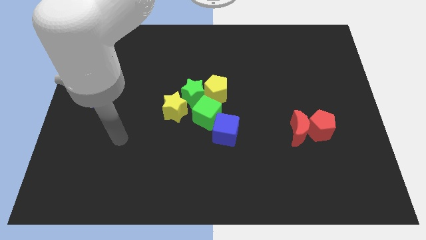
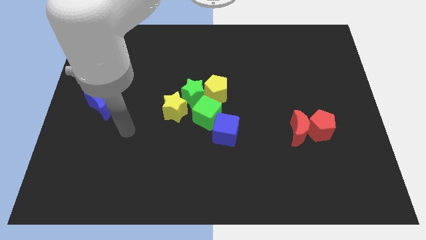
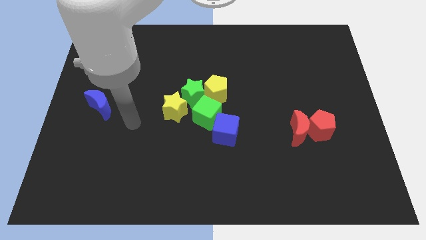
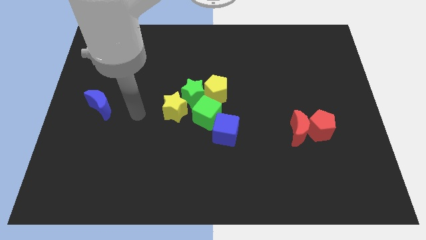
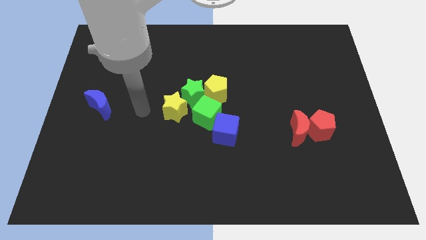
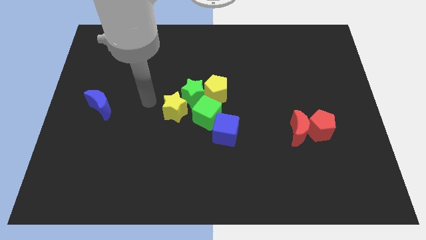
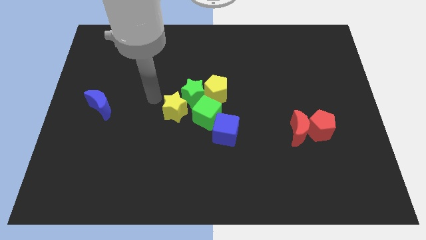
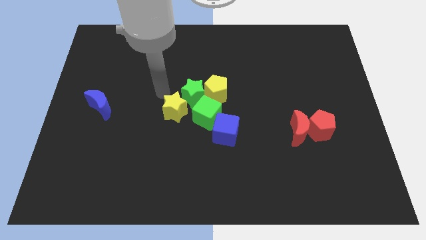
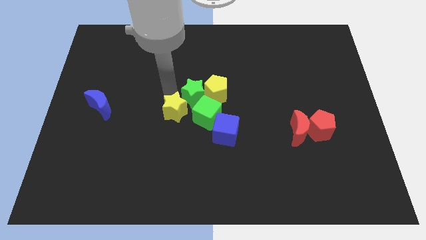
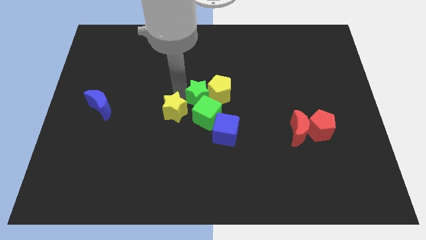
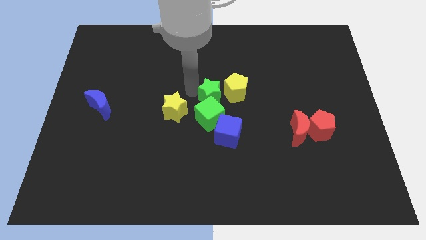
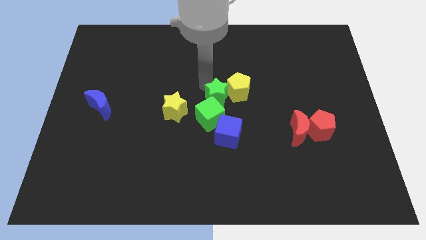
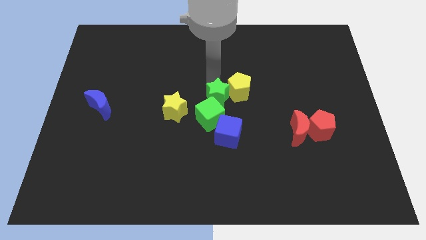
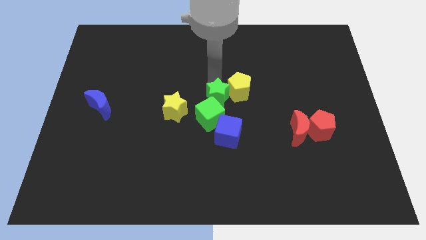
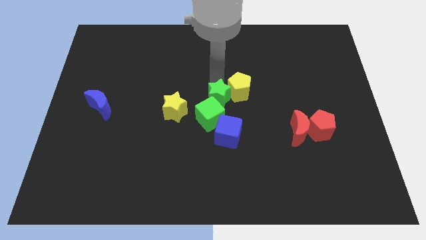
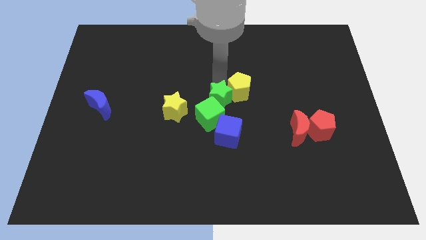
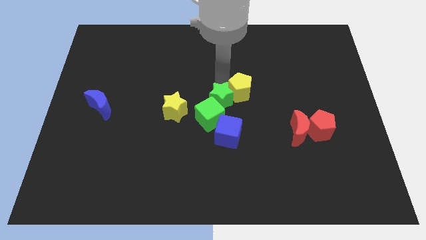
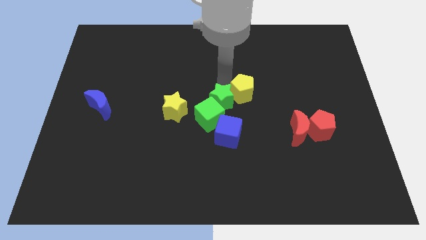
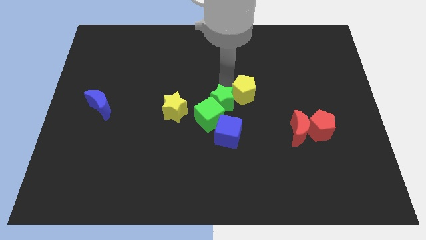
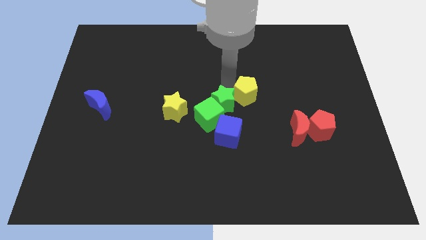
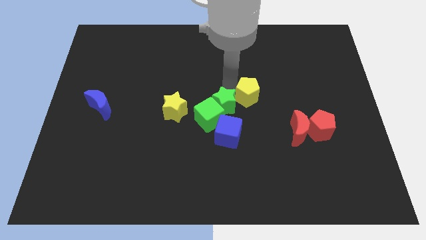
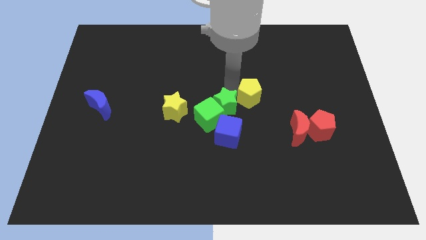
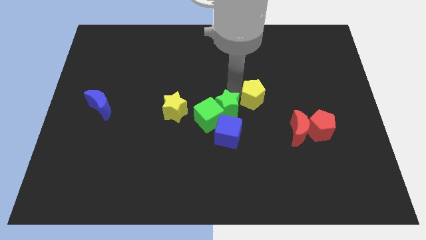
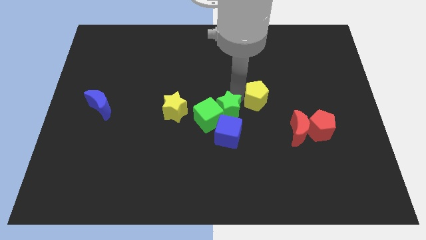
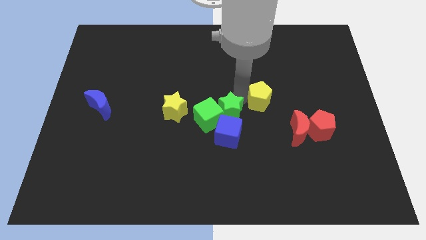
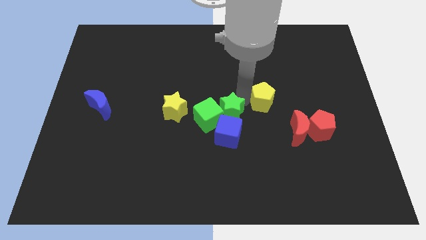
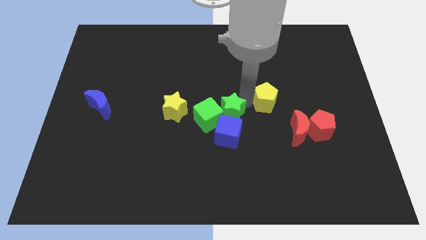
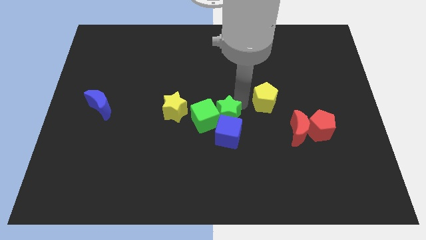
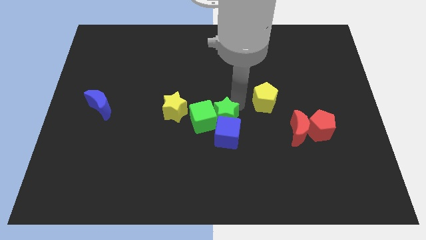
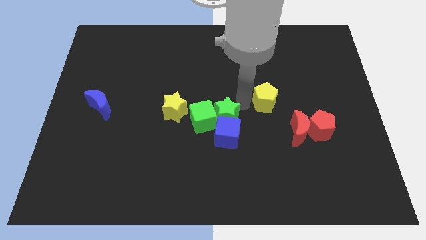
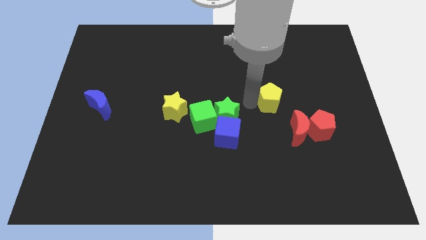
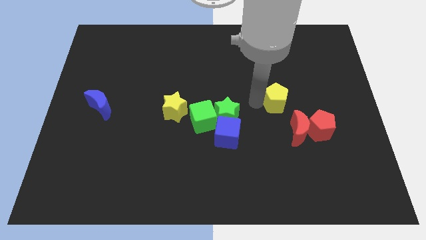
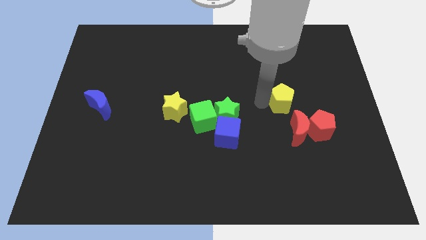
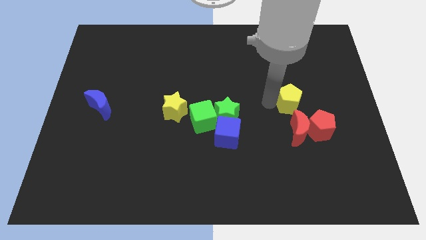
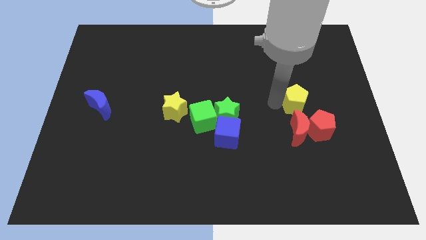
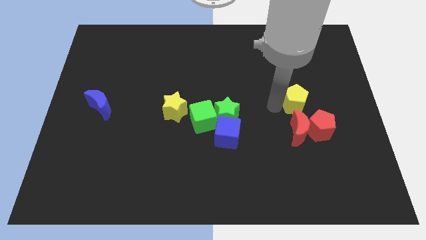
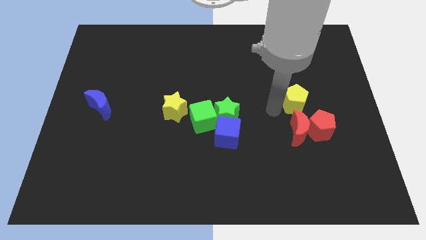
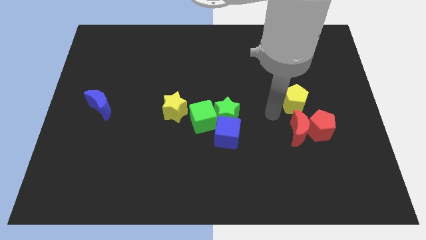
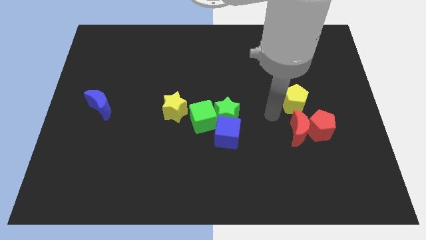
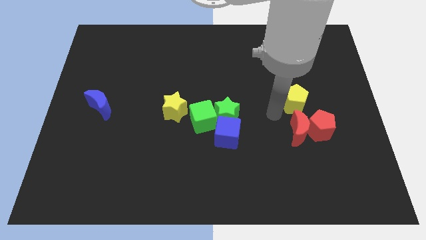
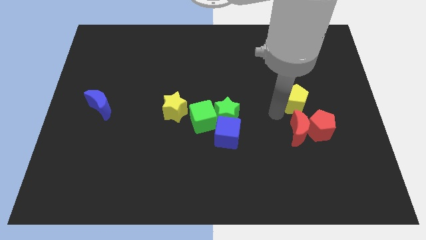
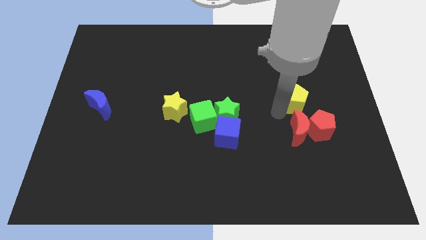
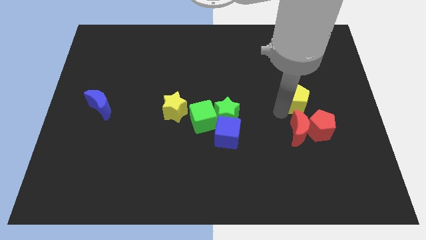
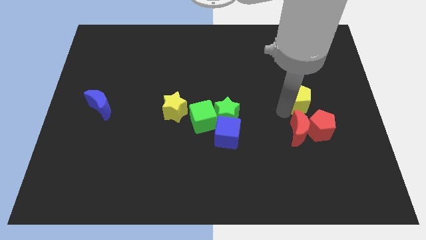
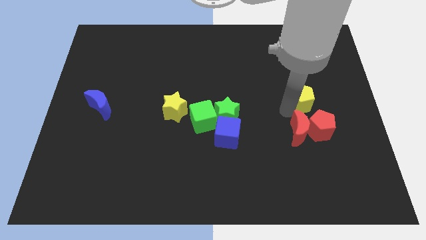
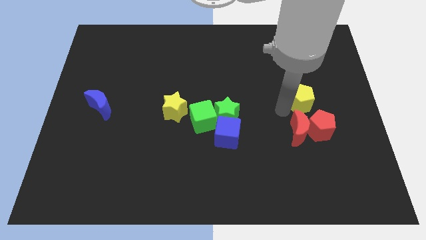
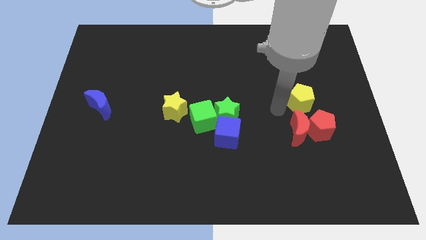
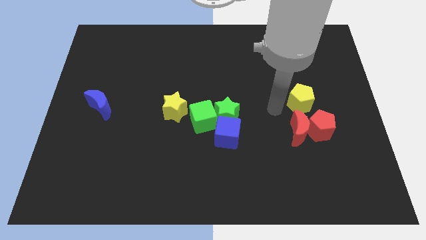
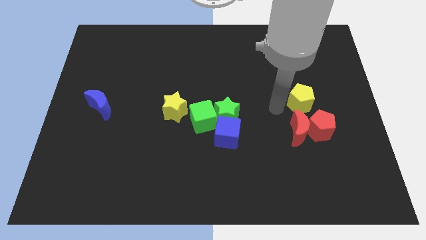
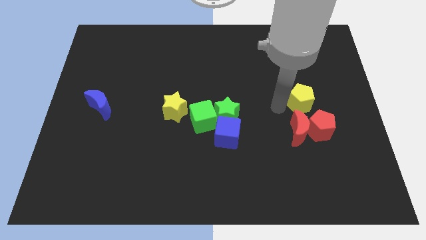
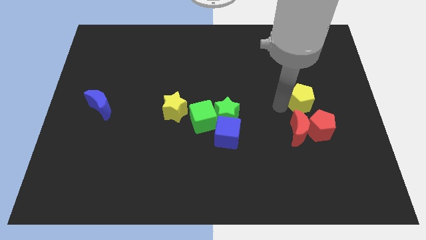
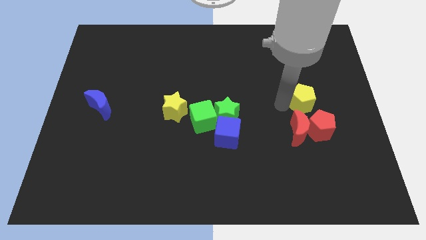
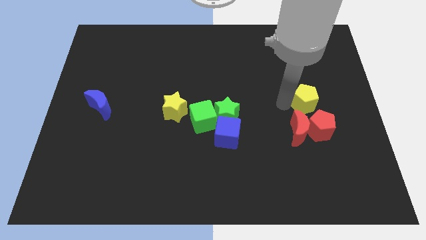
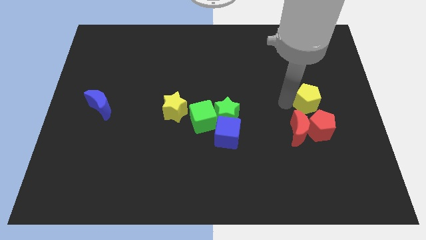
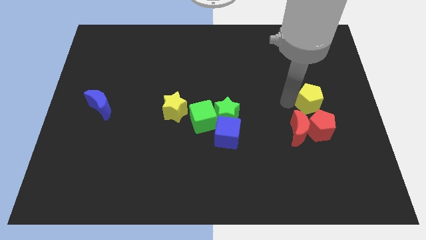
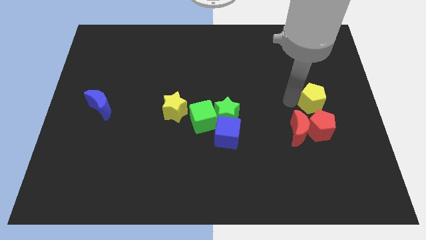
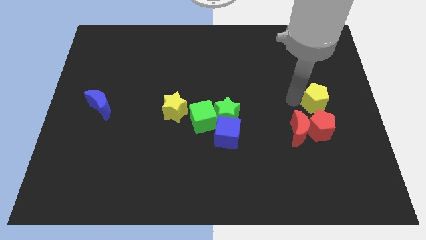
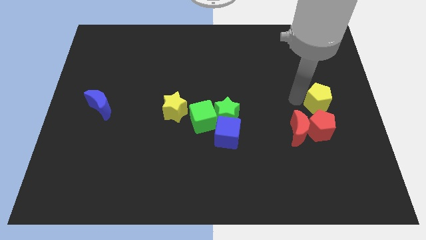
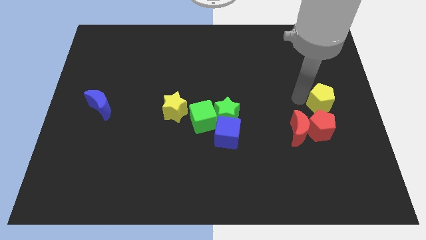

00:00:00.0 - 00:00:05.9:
slide the yellow pentagon to the right side of the board

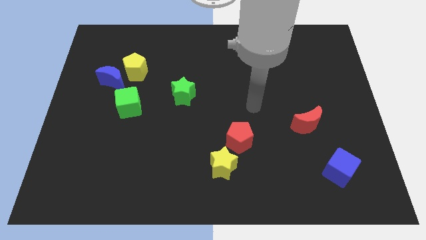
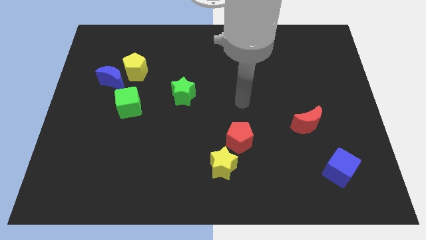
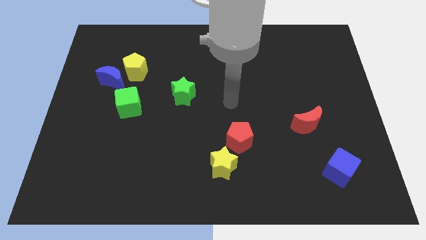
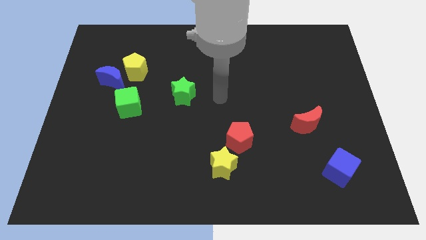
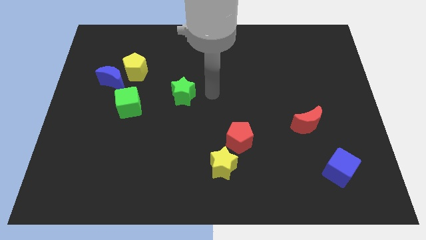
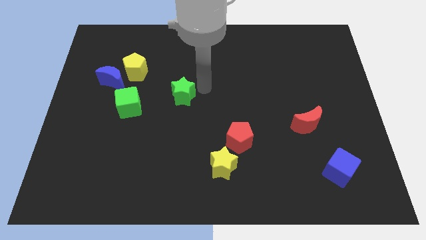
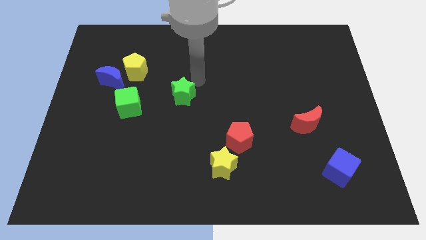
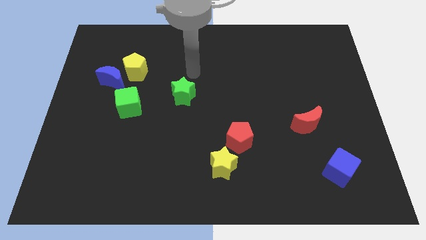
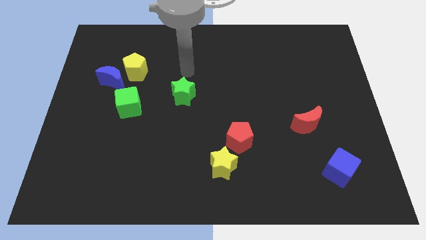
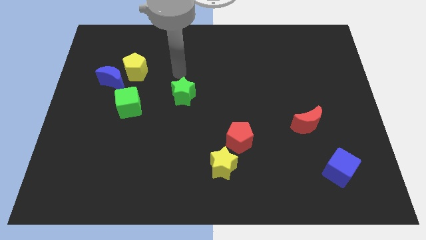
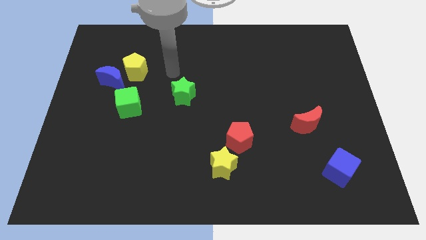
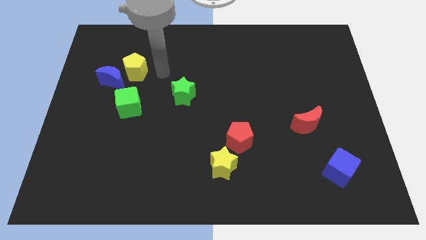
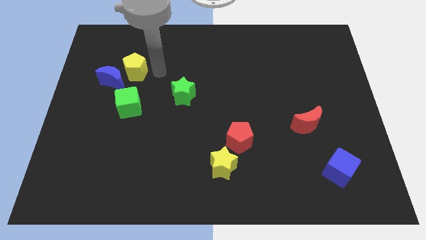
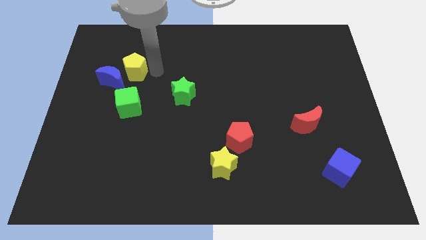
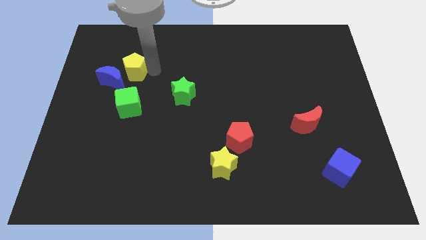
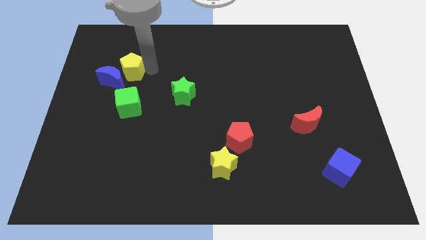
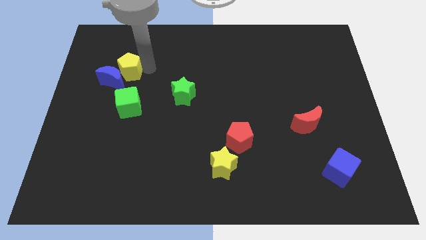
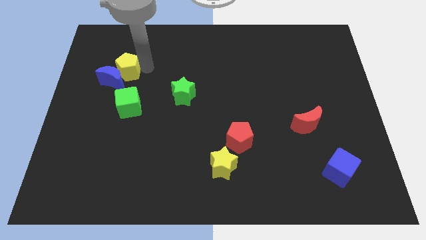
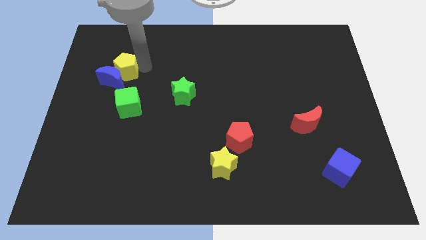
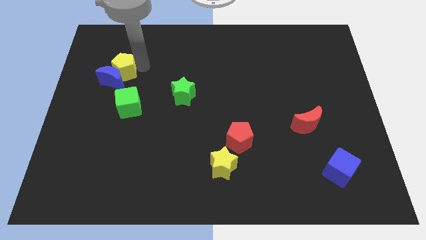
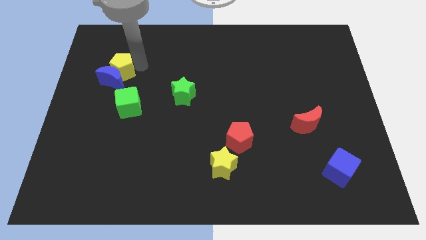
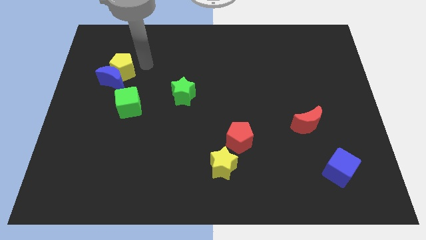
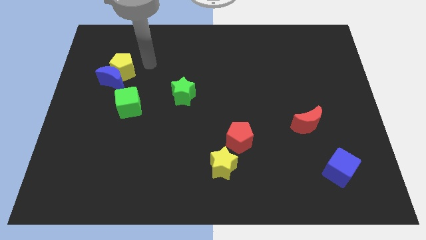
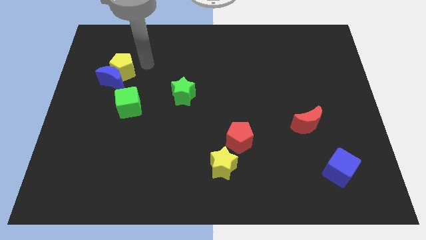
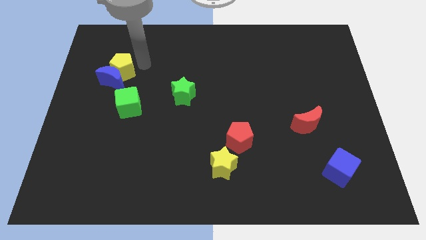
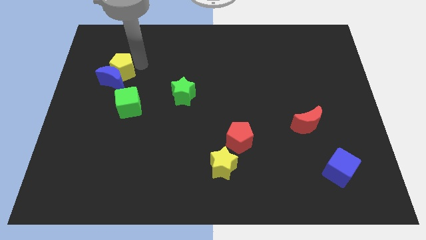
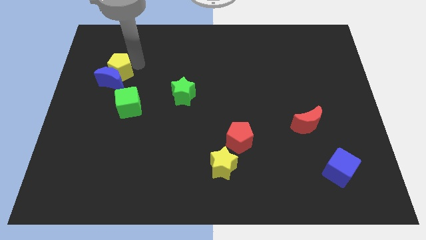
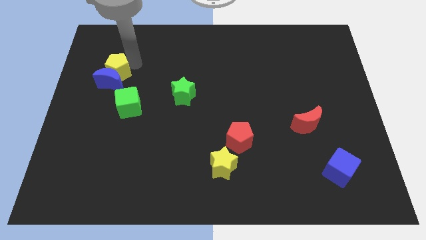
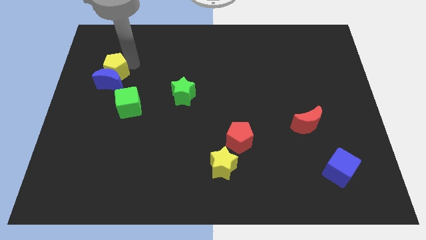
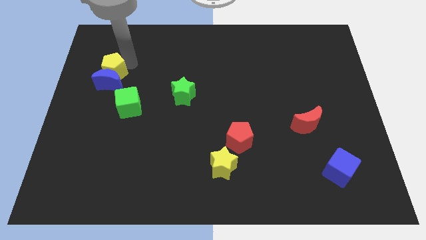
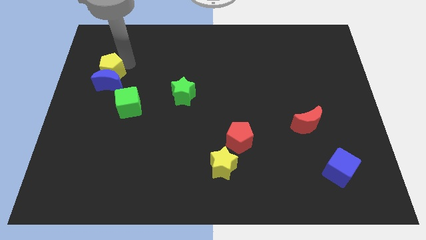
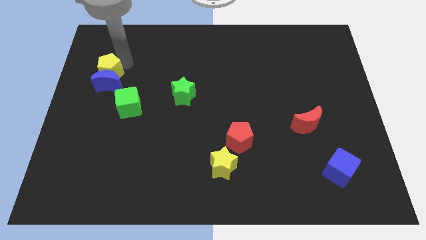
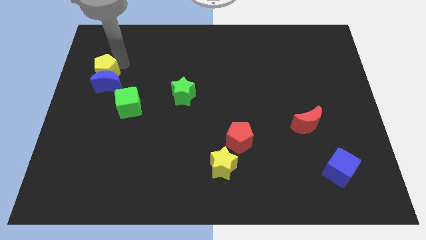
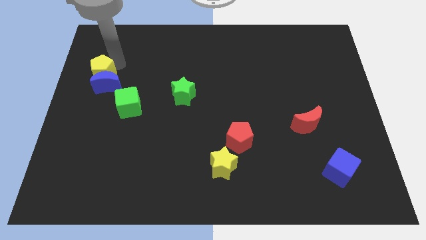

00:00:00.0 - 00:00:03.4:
push the yellow pentagon to the left side
